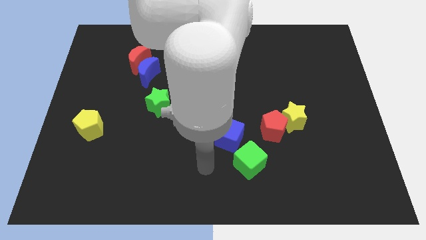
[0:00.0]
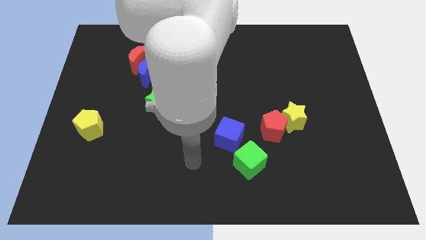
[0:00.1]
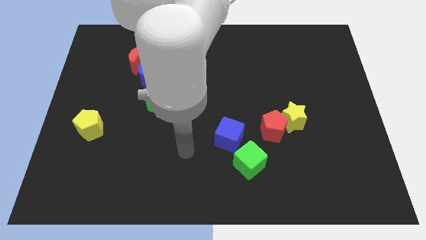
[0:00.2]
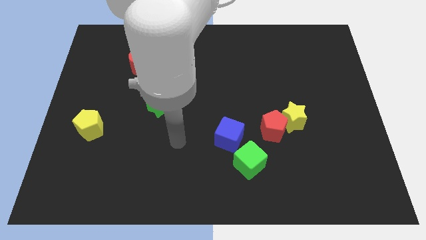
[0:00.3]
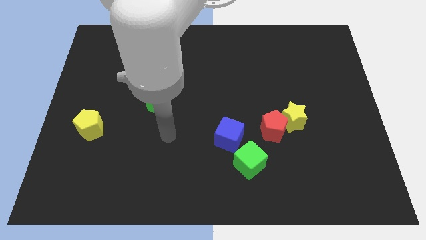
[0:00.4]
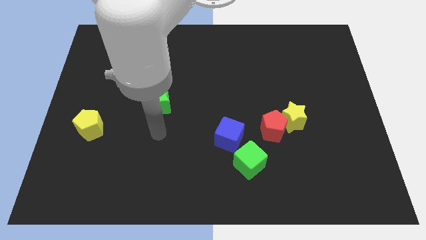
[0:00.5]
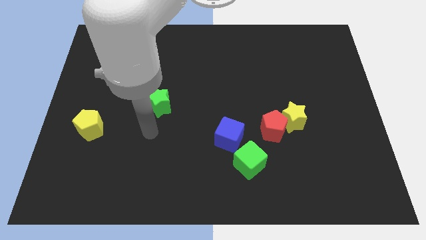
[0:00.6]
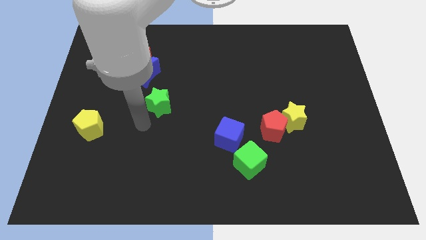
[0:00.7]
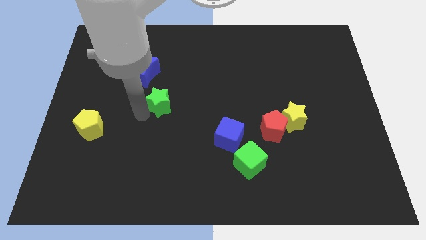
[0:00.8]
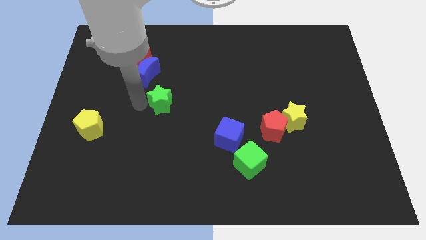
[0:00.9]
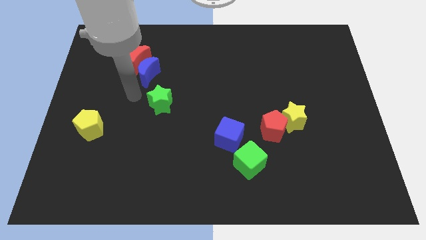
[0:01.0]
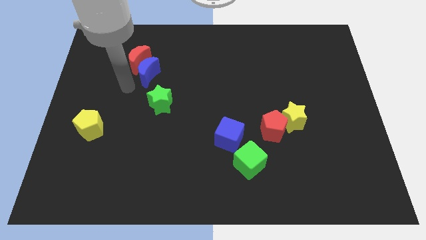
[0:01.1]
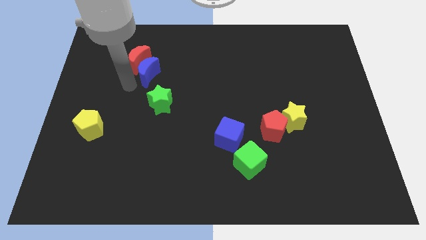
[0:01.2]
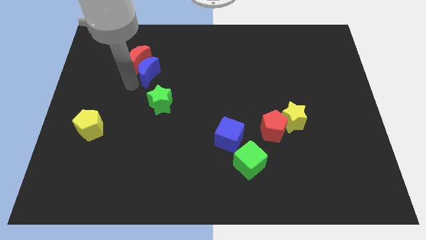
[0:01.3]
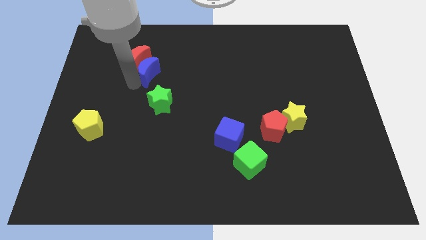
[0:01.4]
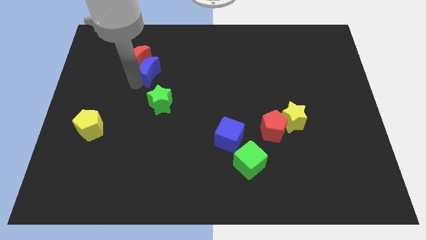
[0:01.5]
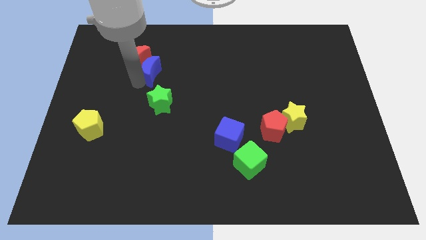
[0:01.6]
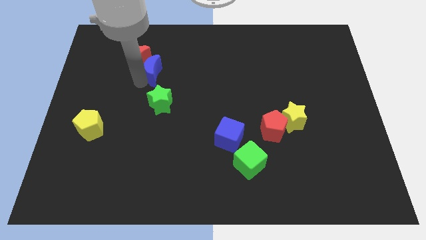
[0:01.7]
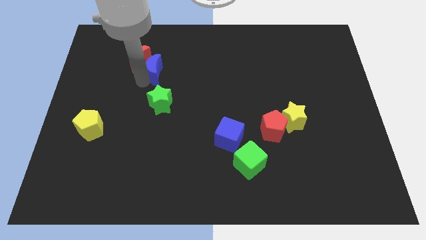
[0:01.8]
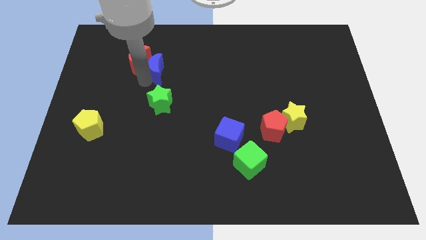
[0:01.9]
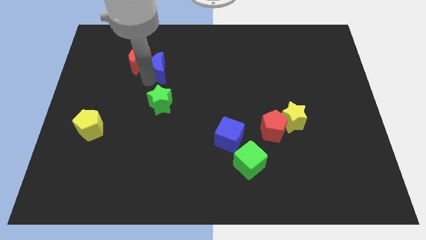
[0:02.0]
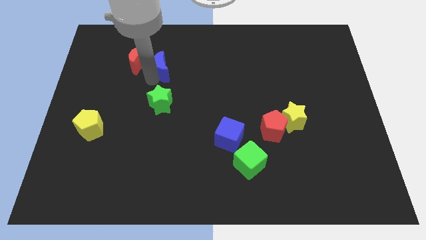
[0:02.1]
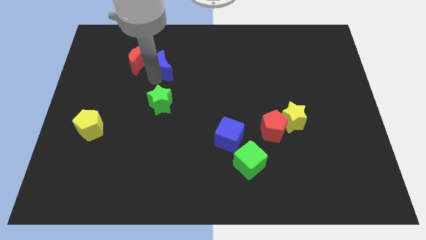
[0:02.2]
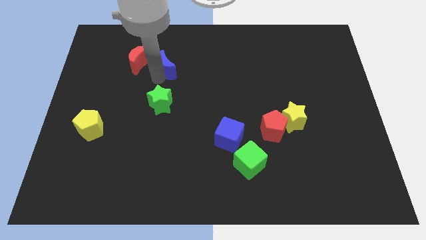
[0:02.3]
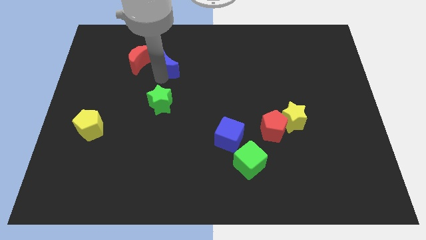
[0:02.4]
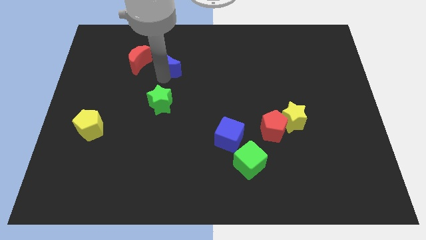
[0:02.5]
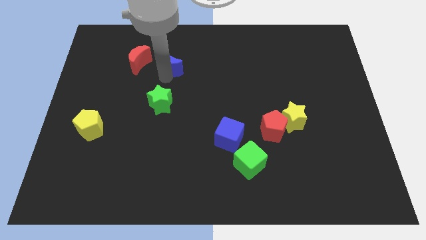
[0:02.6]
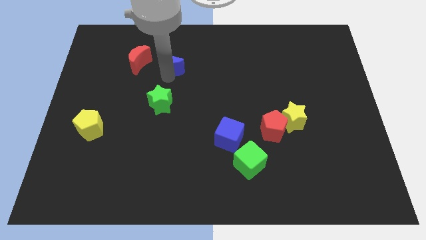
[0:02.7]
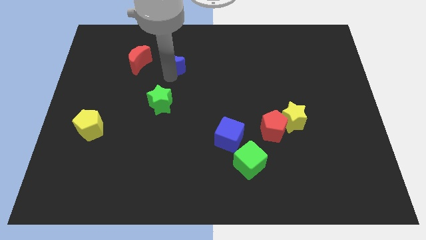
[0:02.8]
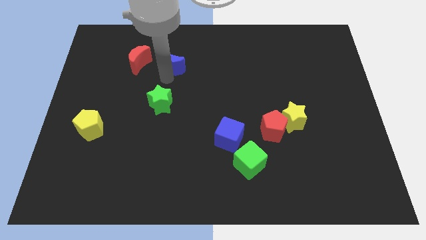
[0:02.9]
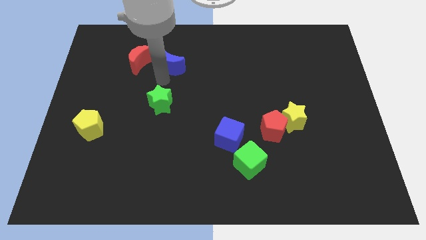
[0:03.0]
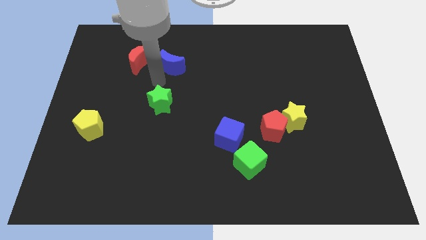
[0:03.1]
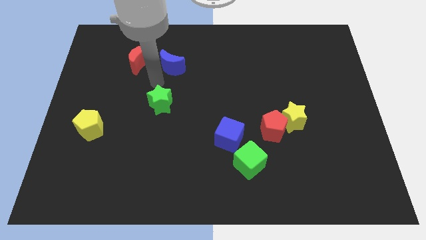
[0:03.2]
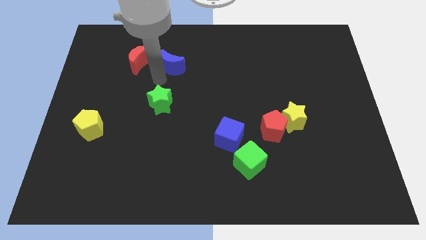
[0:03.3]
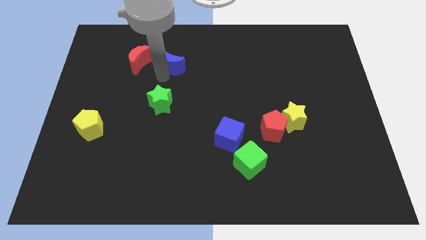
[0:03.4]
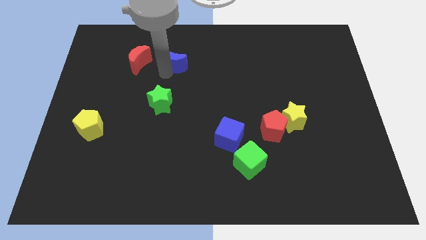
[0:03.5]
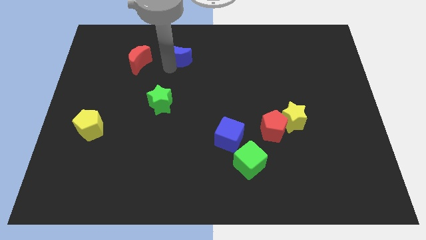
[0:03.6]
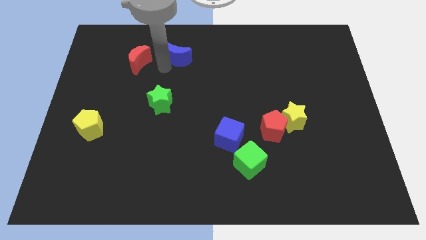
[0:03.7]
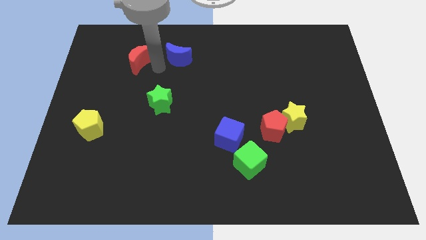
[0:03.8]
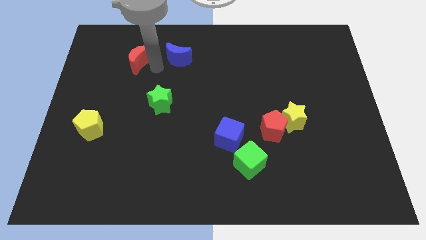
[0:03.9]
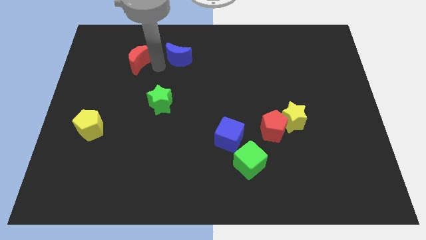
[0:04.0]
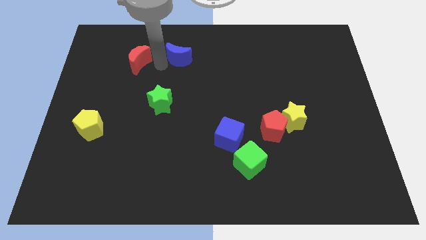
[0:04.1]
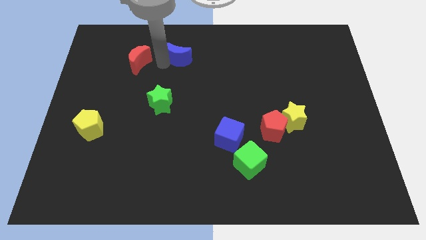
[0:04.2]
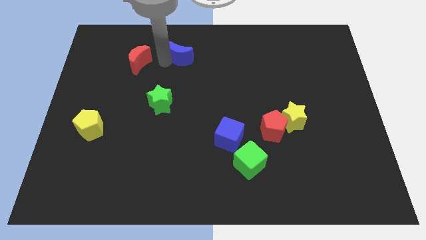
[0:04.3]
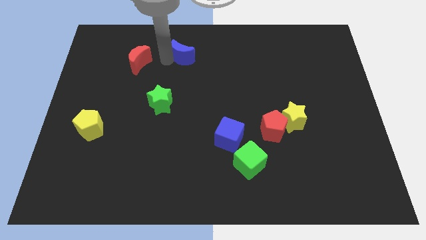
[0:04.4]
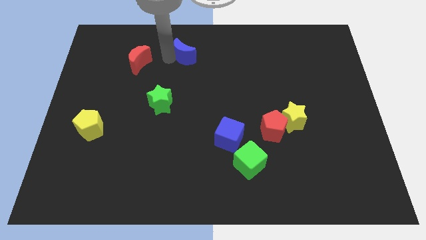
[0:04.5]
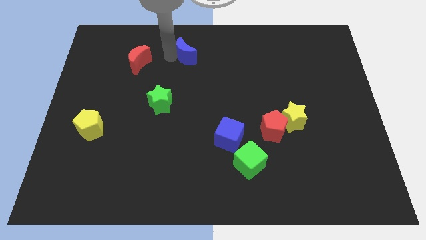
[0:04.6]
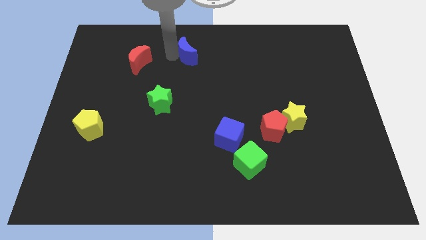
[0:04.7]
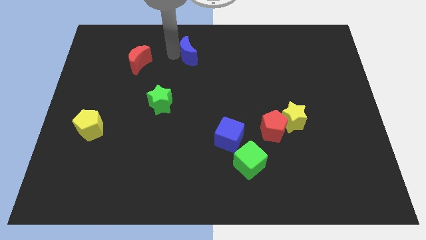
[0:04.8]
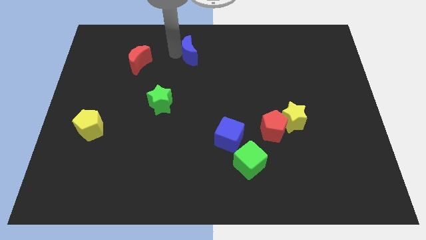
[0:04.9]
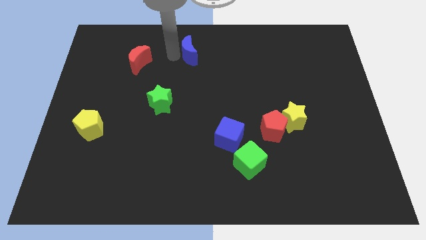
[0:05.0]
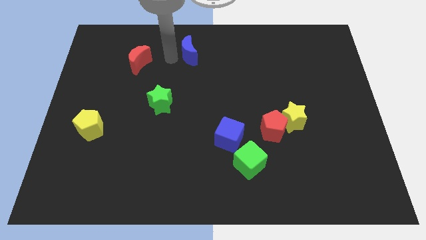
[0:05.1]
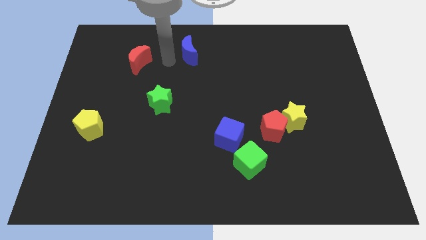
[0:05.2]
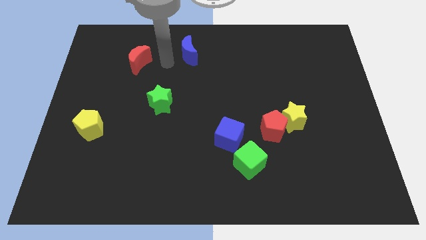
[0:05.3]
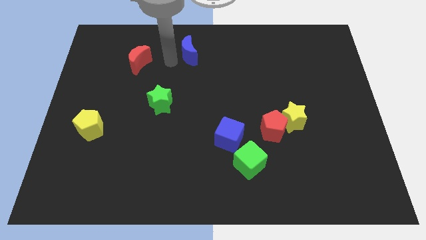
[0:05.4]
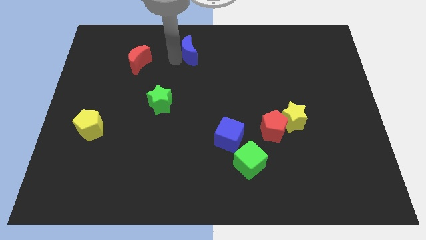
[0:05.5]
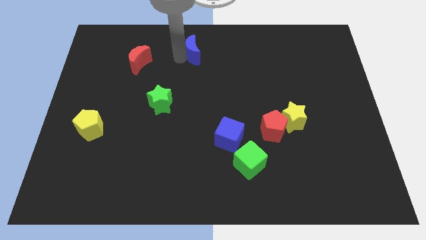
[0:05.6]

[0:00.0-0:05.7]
move the blue moon to the top side

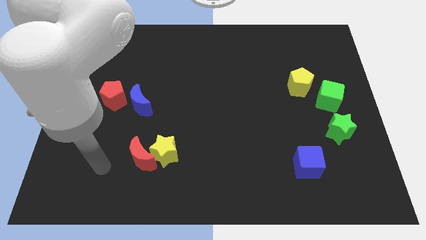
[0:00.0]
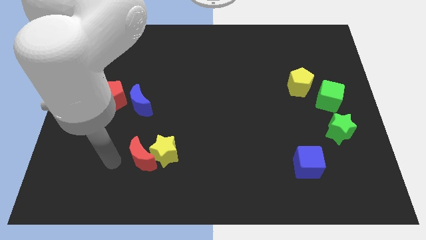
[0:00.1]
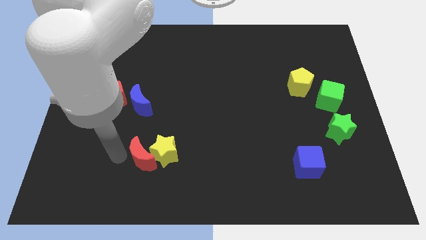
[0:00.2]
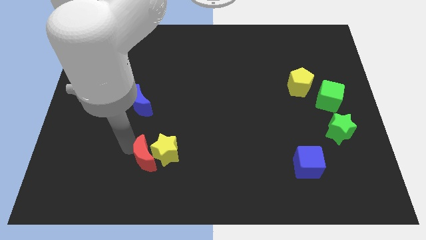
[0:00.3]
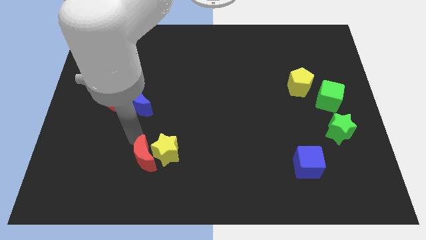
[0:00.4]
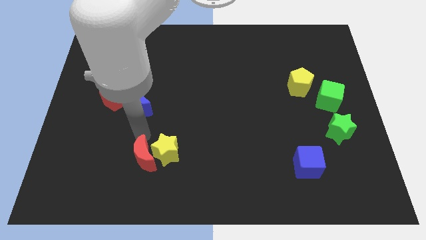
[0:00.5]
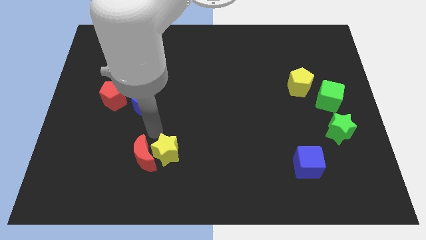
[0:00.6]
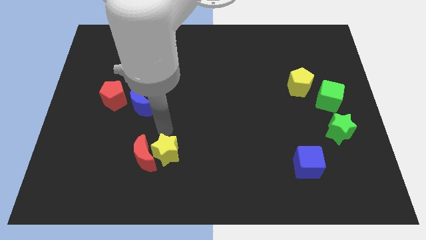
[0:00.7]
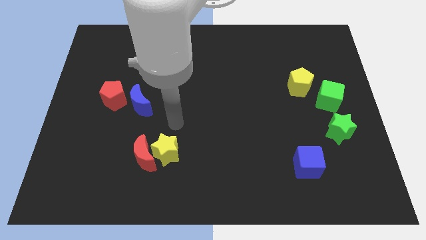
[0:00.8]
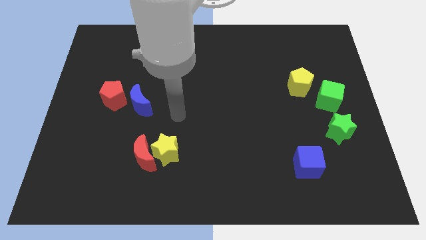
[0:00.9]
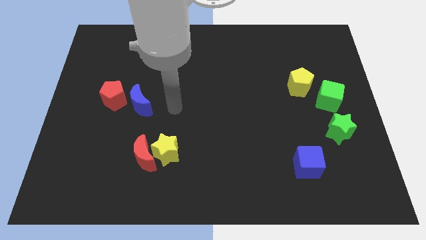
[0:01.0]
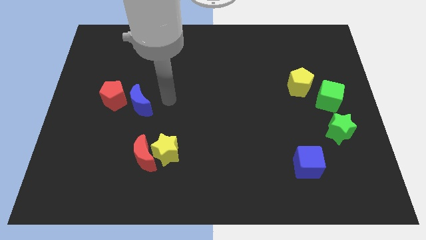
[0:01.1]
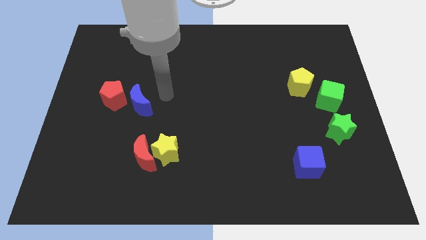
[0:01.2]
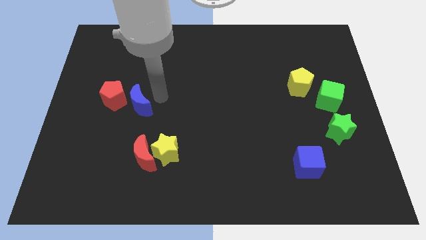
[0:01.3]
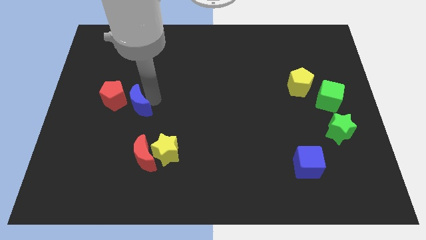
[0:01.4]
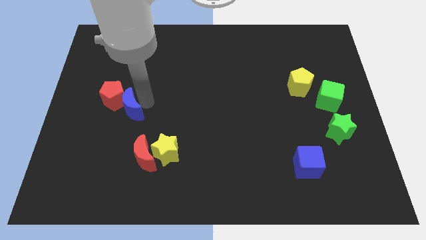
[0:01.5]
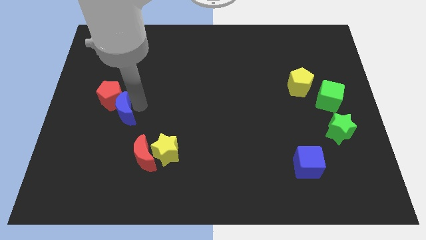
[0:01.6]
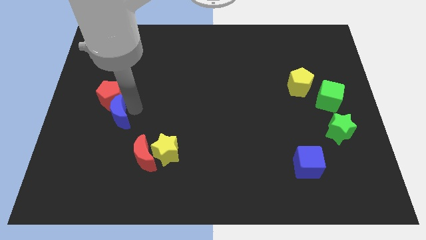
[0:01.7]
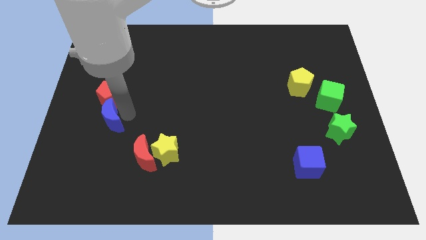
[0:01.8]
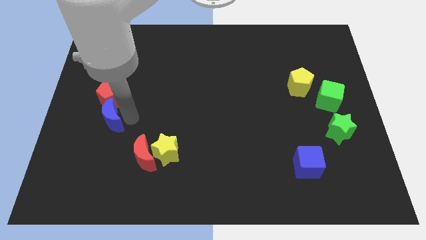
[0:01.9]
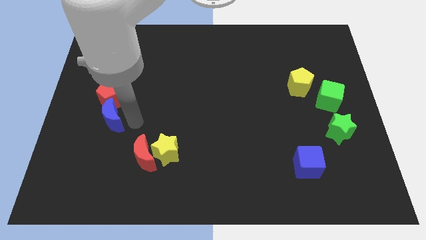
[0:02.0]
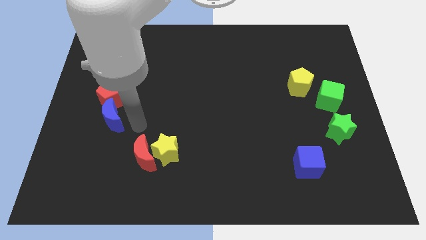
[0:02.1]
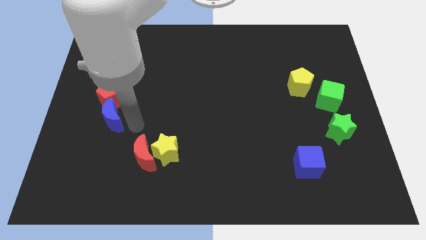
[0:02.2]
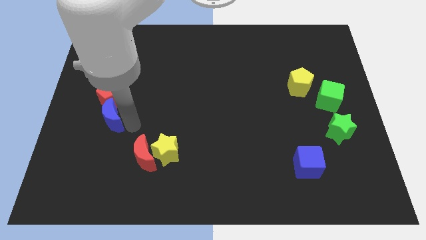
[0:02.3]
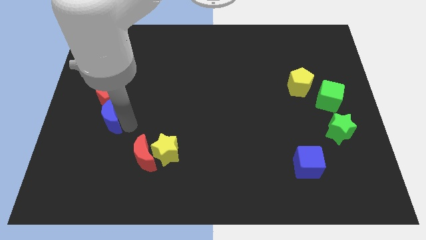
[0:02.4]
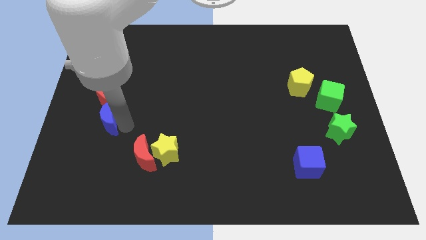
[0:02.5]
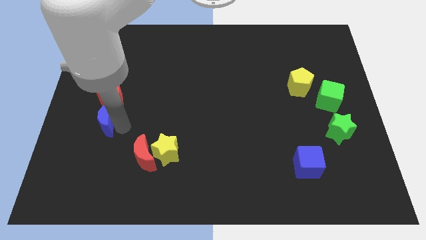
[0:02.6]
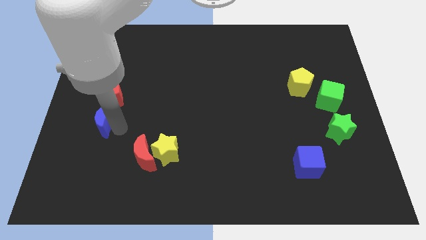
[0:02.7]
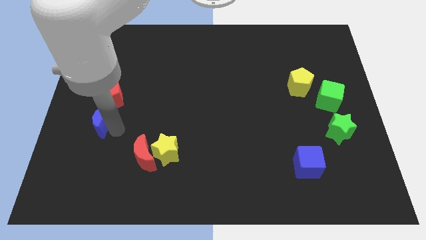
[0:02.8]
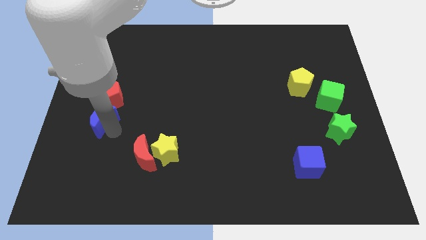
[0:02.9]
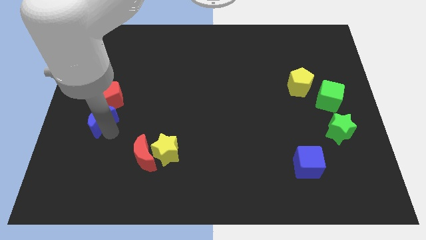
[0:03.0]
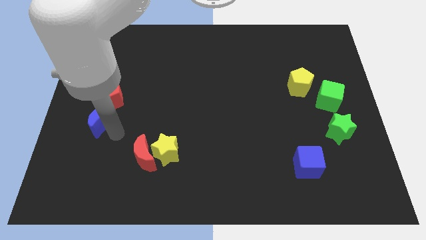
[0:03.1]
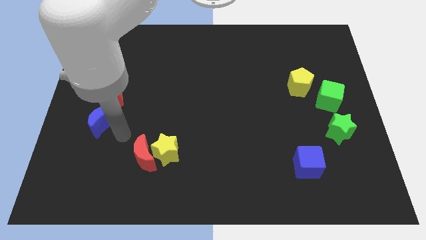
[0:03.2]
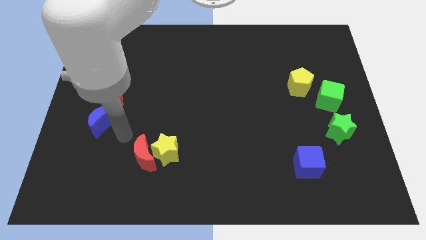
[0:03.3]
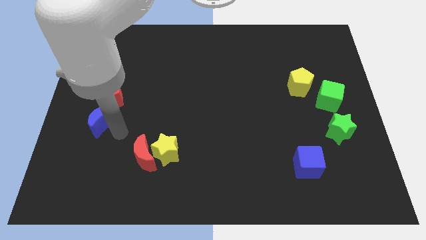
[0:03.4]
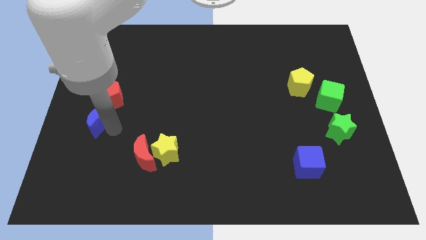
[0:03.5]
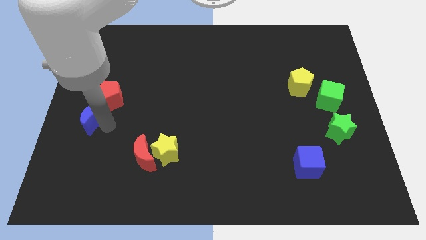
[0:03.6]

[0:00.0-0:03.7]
push the blue moon to the left side of the board
